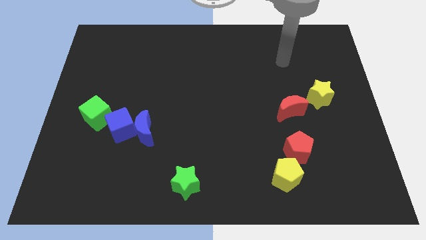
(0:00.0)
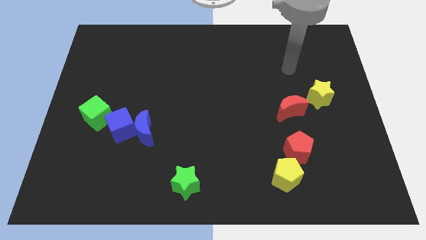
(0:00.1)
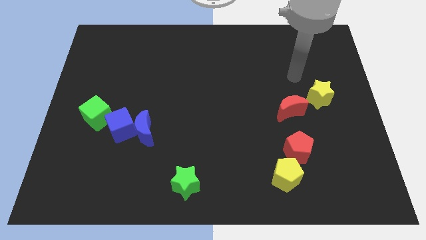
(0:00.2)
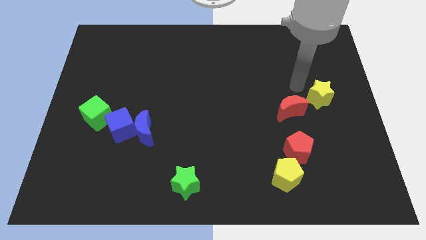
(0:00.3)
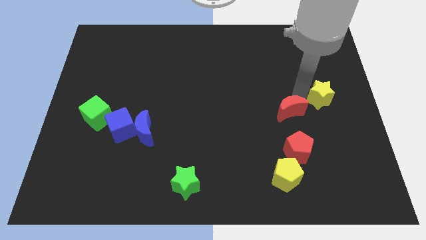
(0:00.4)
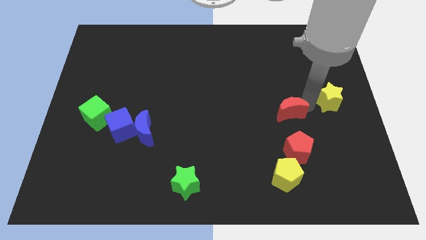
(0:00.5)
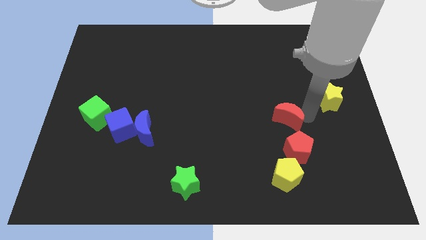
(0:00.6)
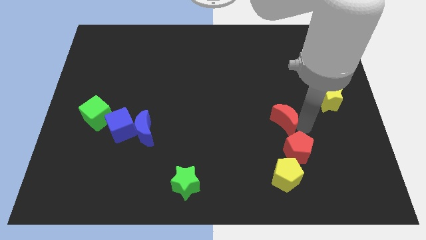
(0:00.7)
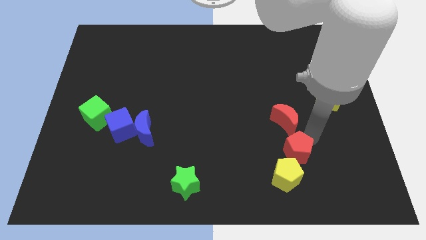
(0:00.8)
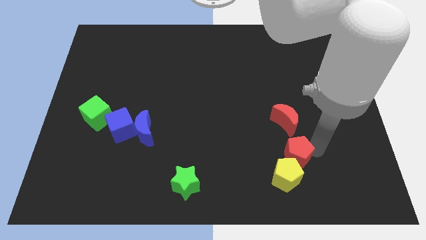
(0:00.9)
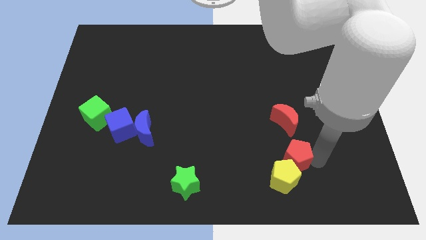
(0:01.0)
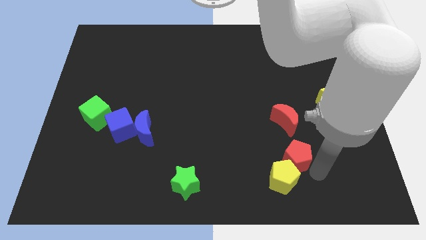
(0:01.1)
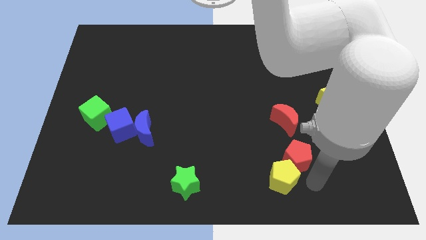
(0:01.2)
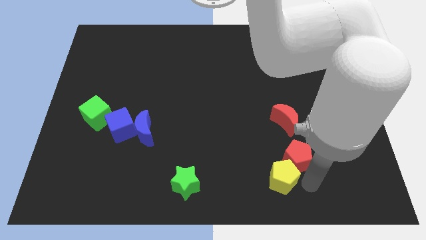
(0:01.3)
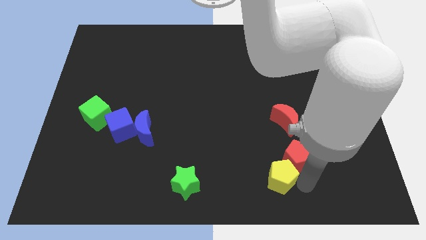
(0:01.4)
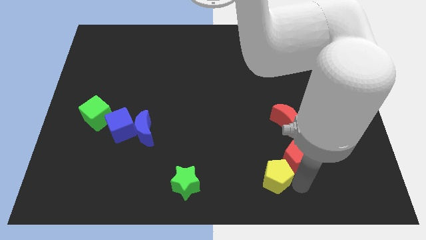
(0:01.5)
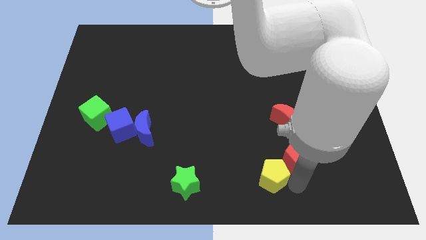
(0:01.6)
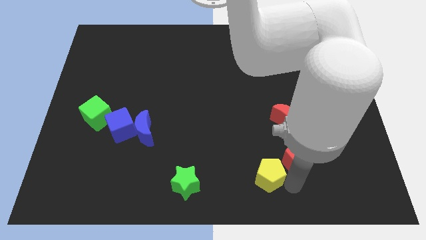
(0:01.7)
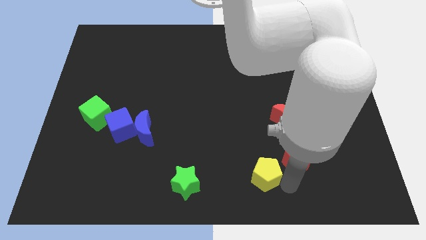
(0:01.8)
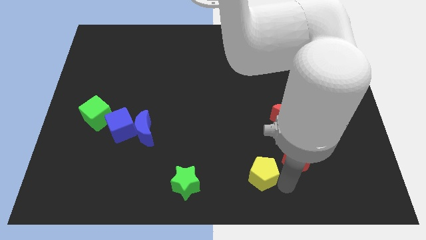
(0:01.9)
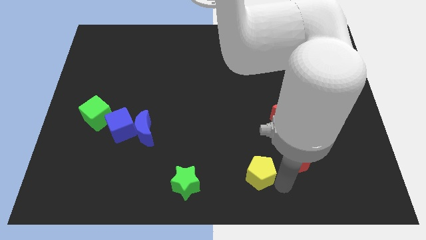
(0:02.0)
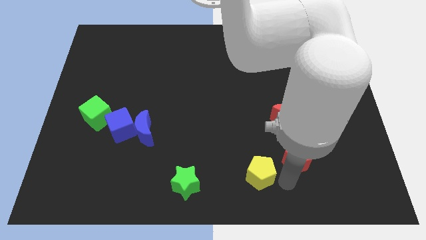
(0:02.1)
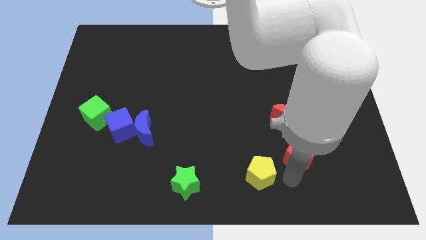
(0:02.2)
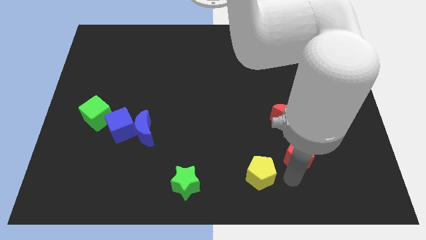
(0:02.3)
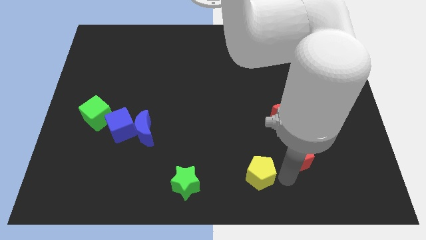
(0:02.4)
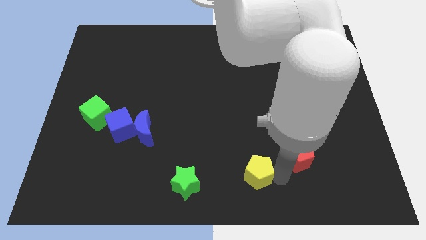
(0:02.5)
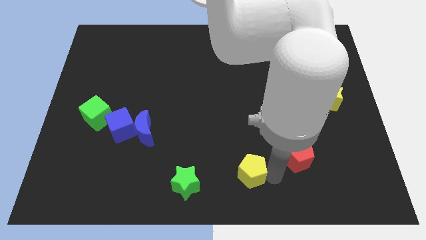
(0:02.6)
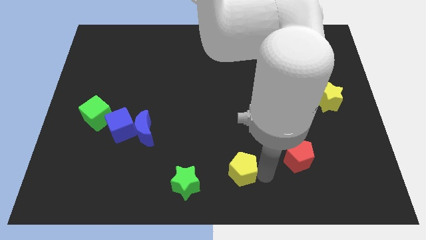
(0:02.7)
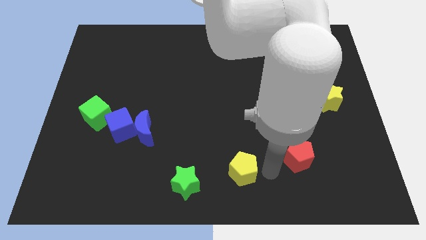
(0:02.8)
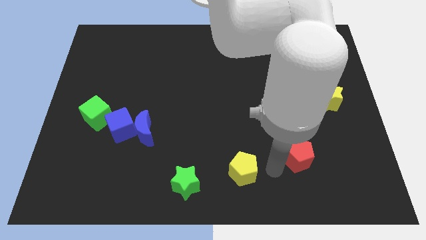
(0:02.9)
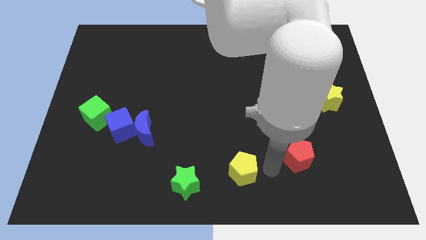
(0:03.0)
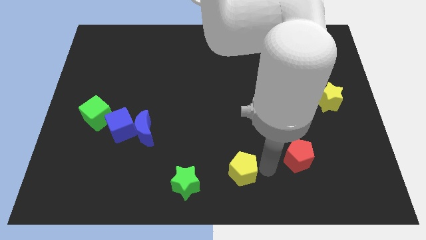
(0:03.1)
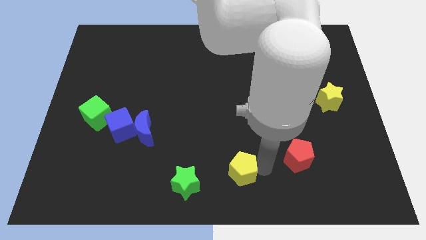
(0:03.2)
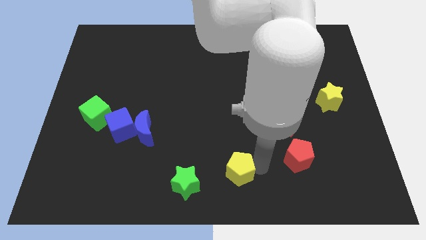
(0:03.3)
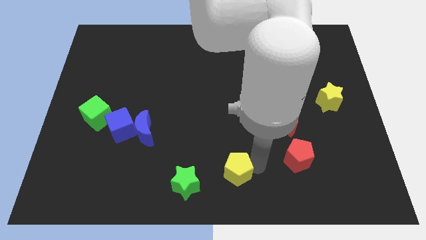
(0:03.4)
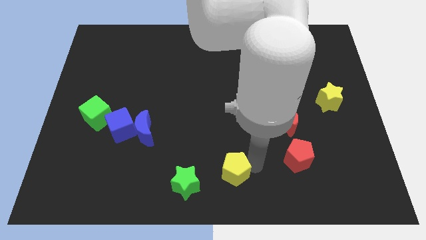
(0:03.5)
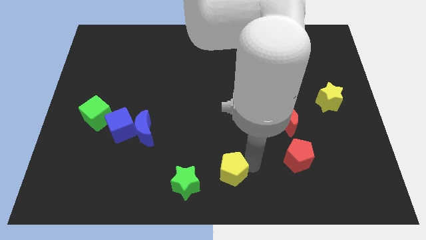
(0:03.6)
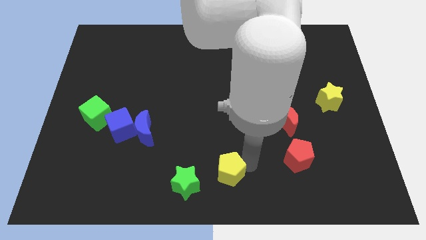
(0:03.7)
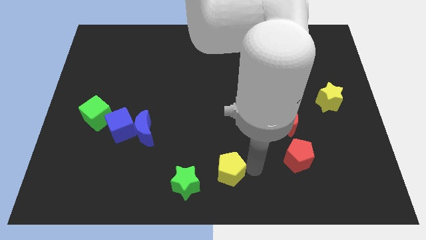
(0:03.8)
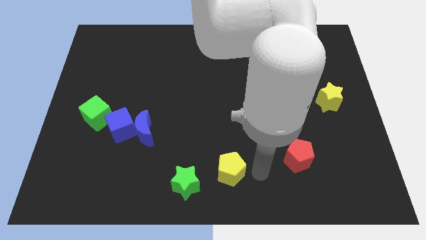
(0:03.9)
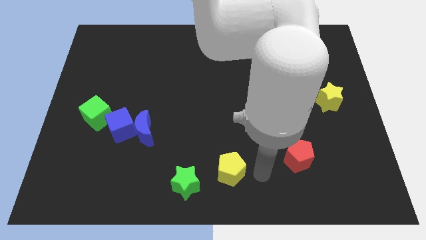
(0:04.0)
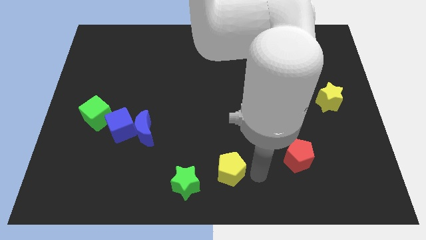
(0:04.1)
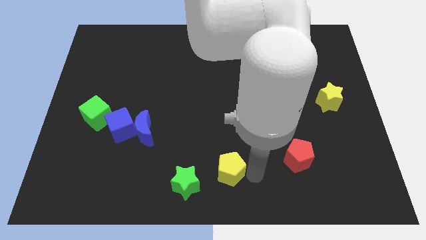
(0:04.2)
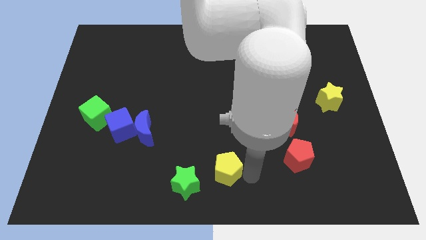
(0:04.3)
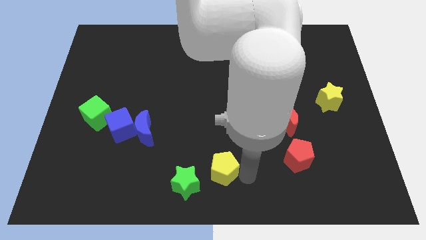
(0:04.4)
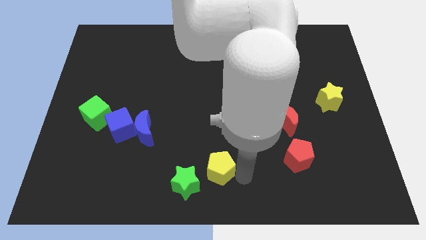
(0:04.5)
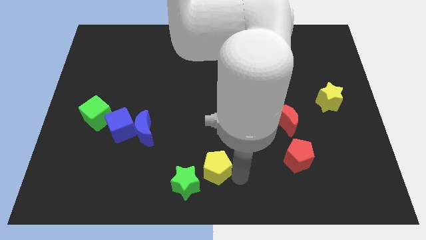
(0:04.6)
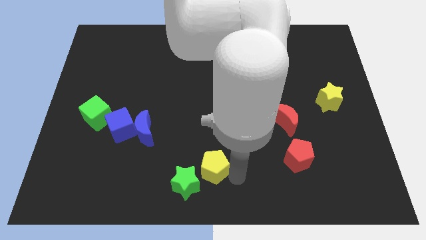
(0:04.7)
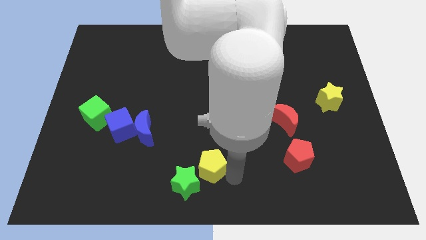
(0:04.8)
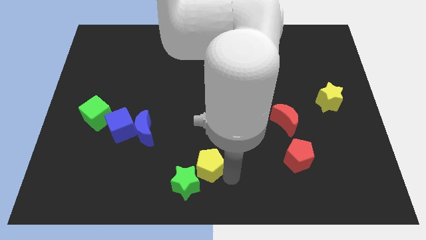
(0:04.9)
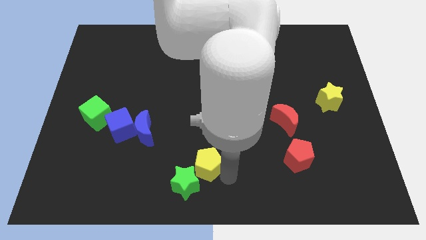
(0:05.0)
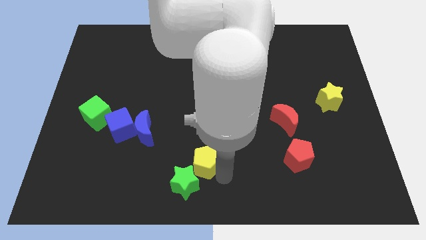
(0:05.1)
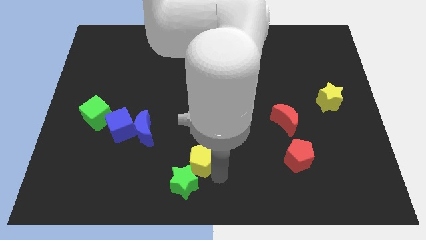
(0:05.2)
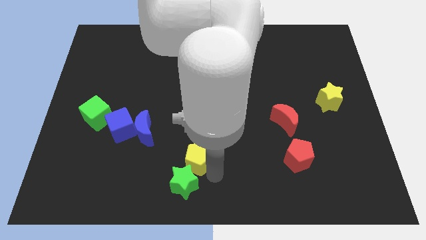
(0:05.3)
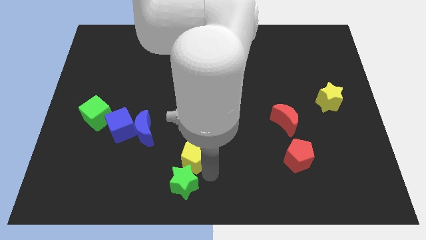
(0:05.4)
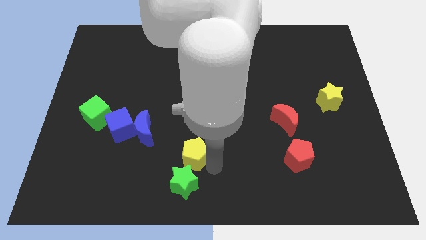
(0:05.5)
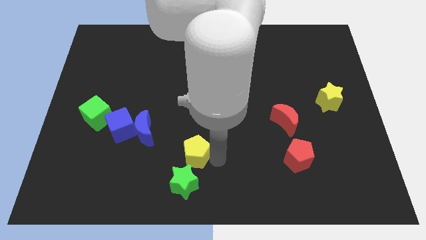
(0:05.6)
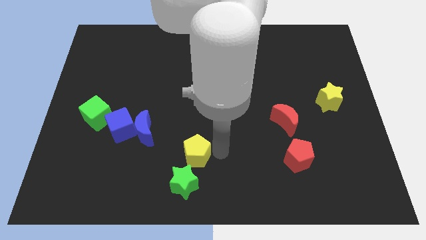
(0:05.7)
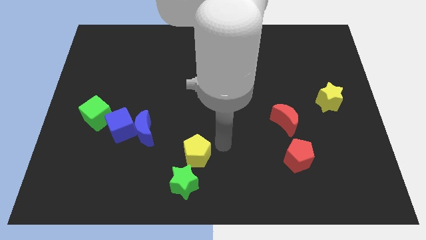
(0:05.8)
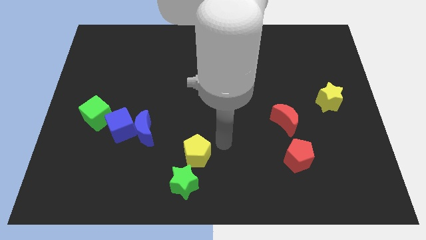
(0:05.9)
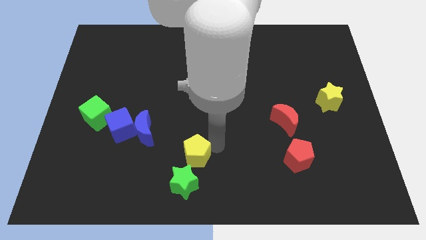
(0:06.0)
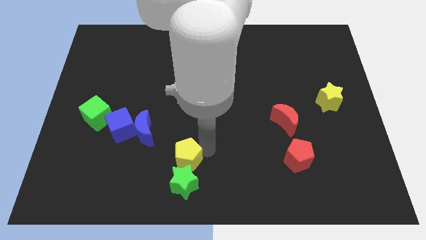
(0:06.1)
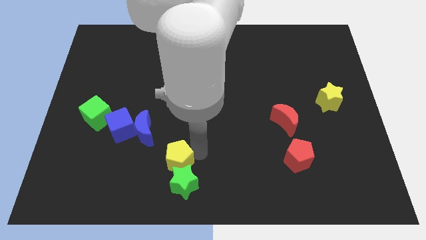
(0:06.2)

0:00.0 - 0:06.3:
slide the yellow pentagon to the left

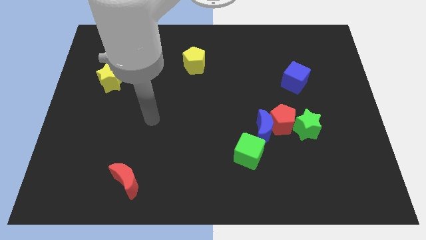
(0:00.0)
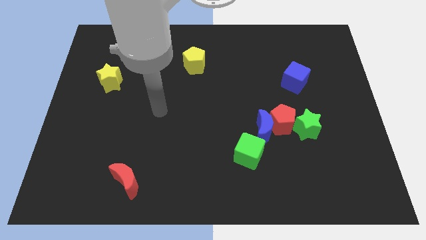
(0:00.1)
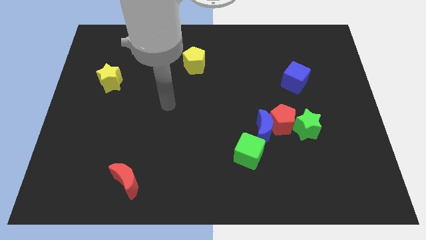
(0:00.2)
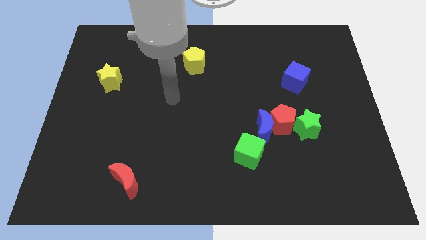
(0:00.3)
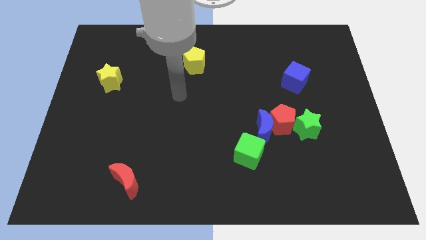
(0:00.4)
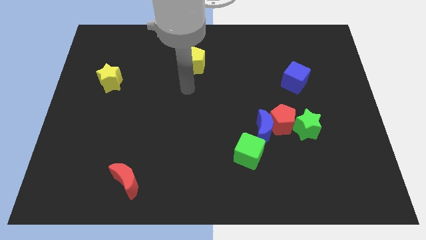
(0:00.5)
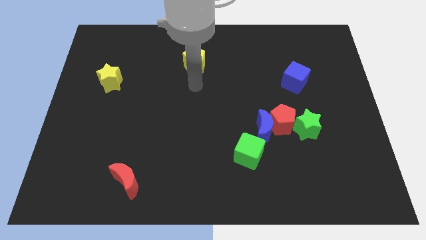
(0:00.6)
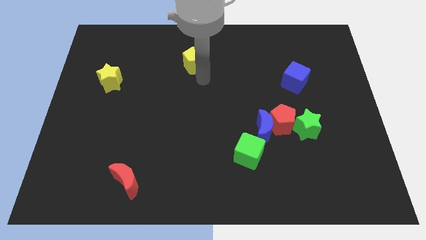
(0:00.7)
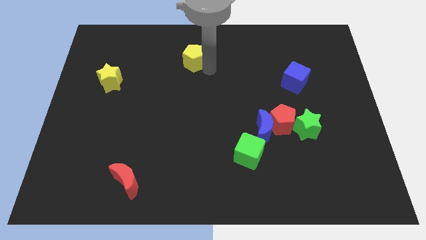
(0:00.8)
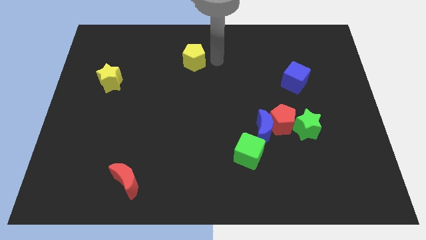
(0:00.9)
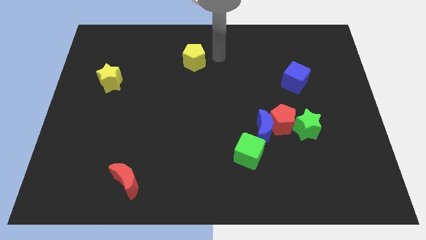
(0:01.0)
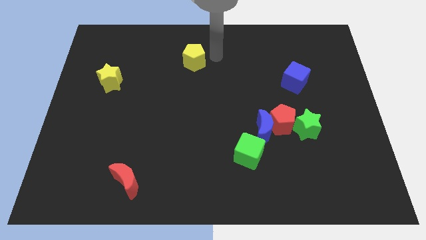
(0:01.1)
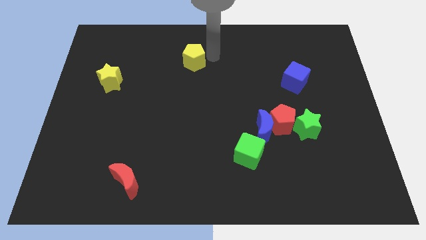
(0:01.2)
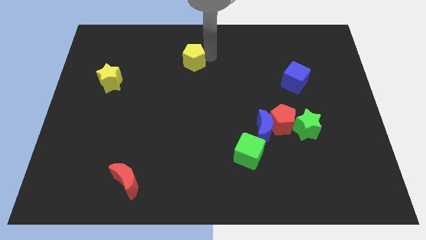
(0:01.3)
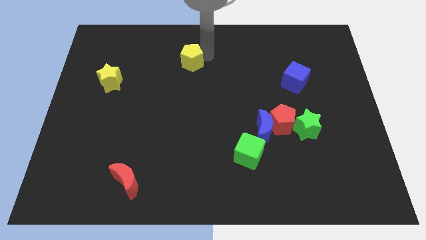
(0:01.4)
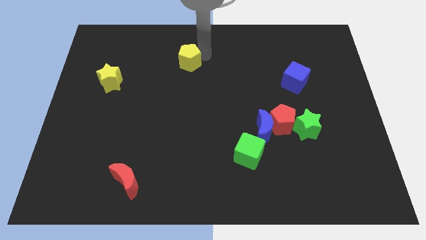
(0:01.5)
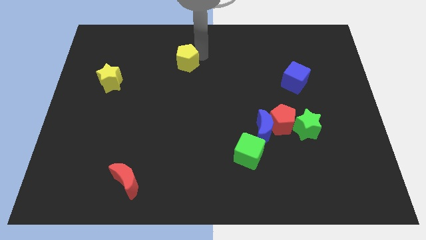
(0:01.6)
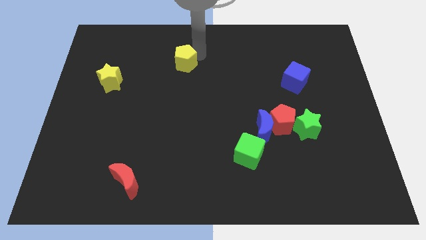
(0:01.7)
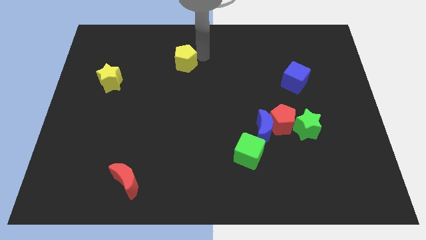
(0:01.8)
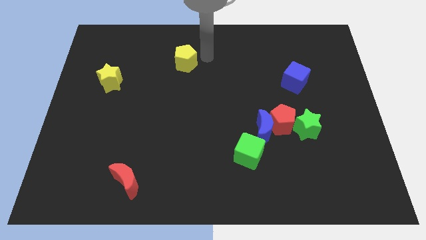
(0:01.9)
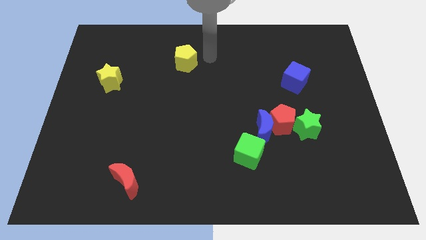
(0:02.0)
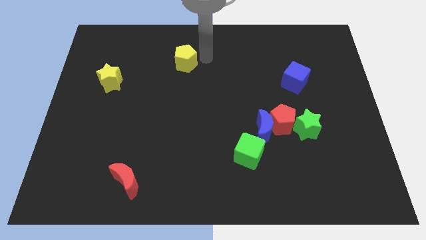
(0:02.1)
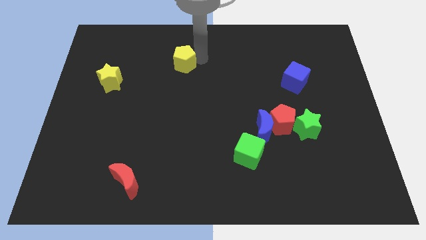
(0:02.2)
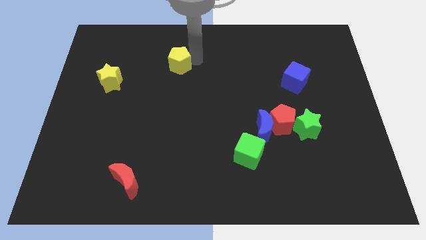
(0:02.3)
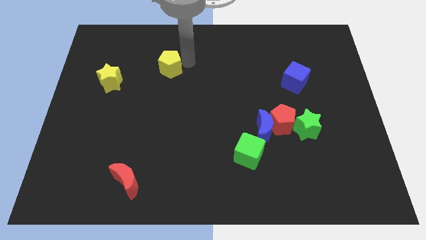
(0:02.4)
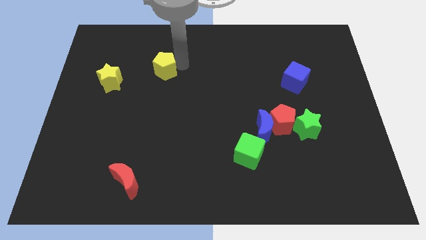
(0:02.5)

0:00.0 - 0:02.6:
slightly push the yellow pentagon to the left
